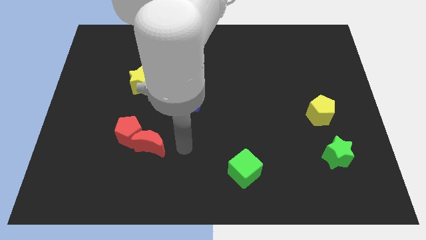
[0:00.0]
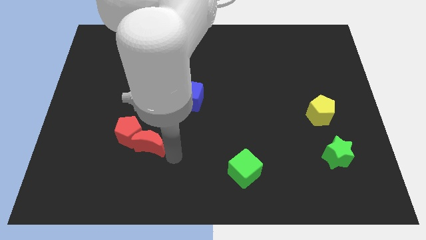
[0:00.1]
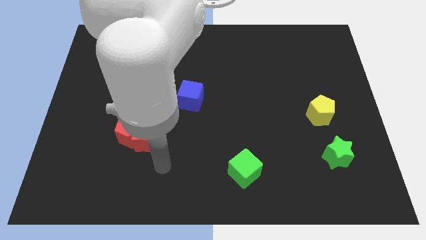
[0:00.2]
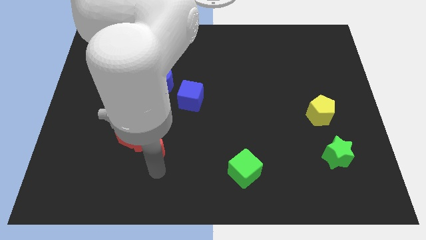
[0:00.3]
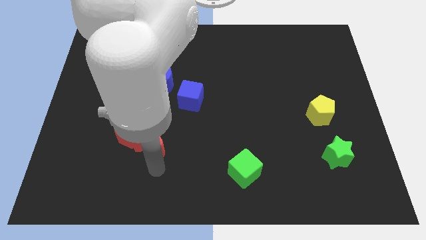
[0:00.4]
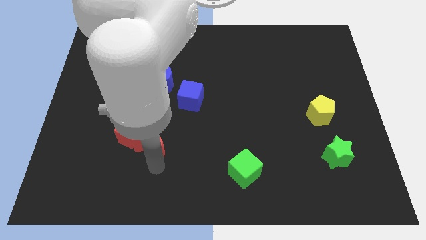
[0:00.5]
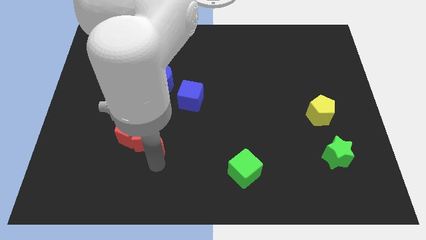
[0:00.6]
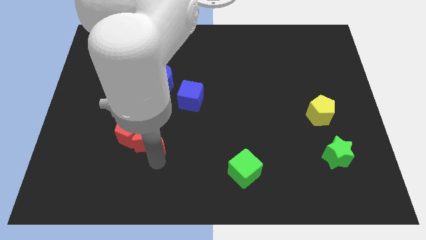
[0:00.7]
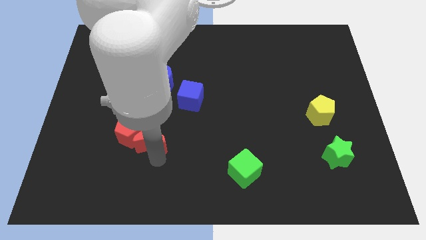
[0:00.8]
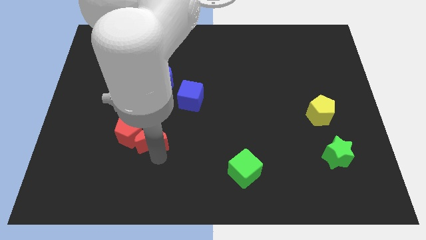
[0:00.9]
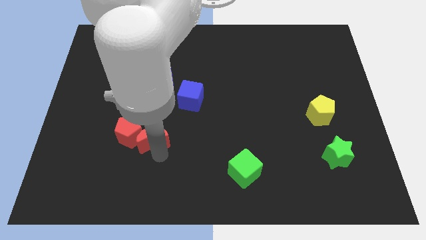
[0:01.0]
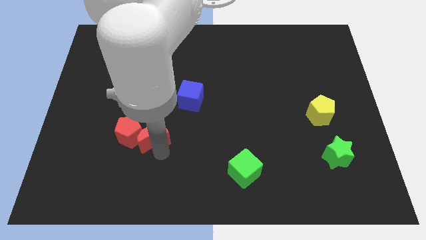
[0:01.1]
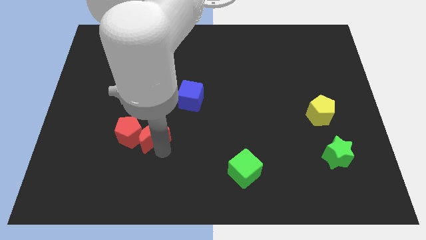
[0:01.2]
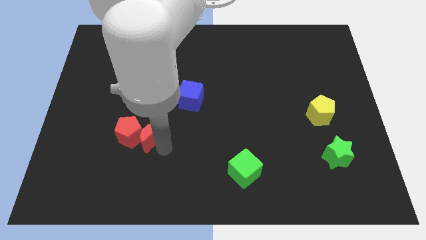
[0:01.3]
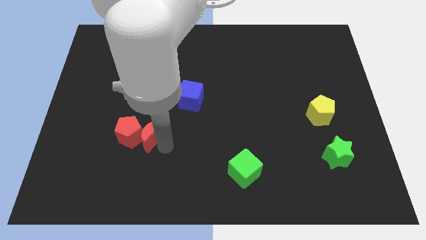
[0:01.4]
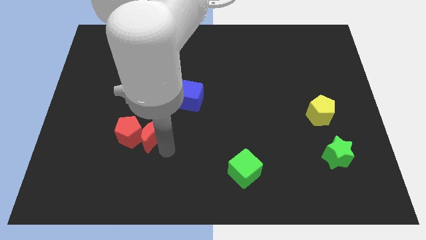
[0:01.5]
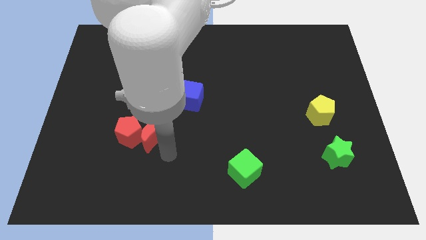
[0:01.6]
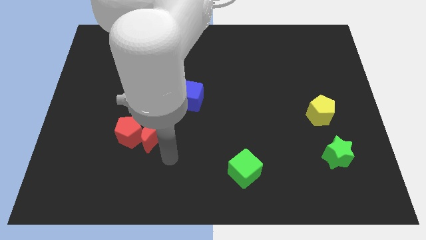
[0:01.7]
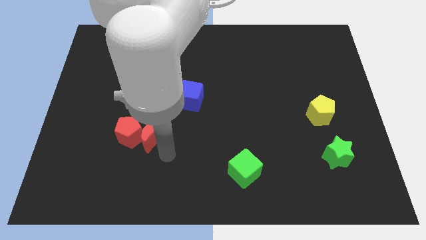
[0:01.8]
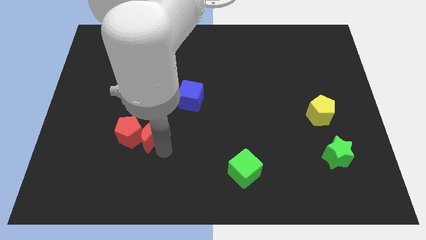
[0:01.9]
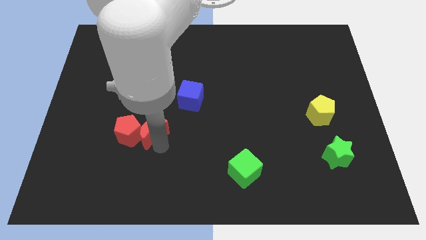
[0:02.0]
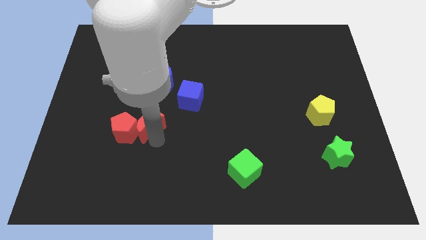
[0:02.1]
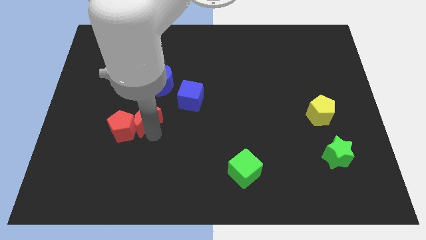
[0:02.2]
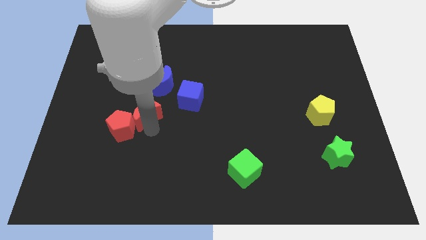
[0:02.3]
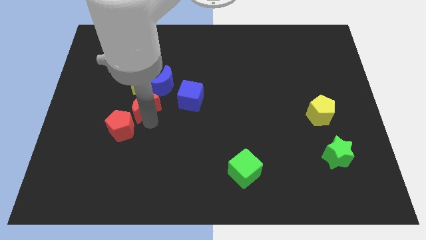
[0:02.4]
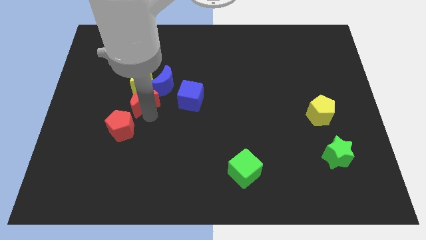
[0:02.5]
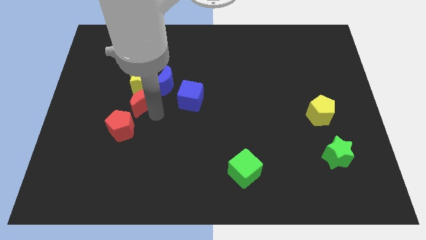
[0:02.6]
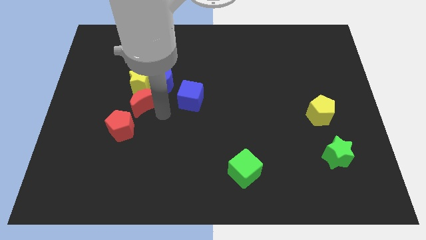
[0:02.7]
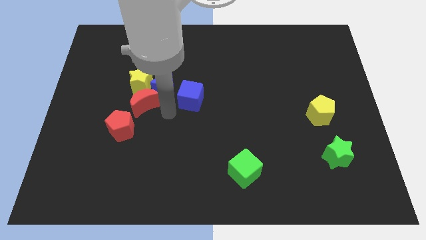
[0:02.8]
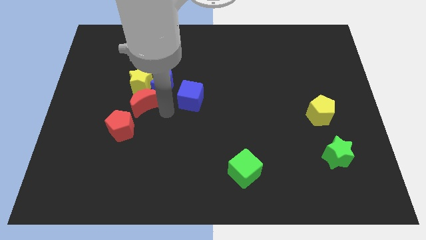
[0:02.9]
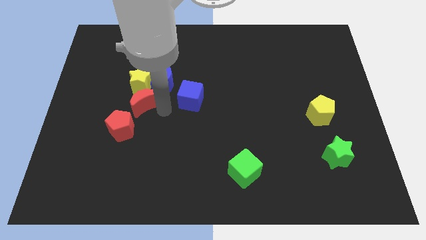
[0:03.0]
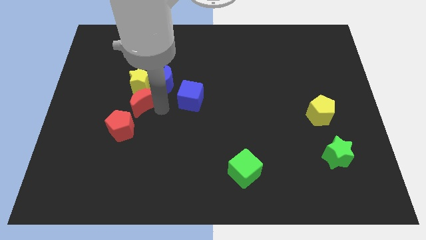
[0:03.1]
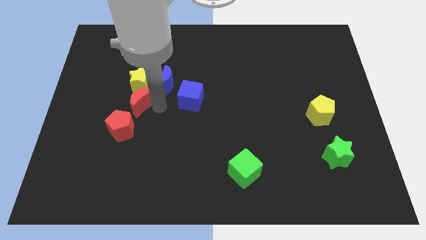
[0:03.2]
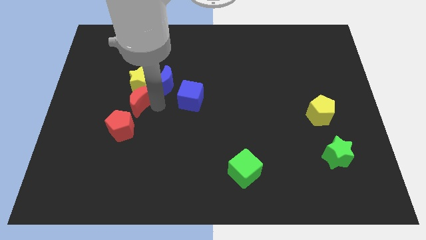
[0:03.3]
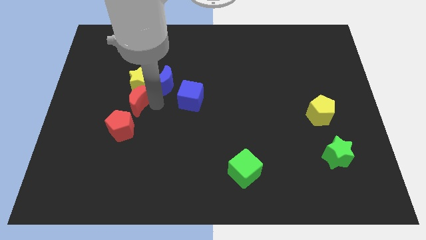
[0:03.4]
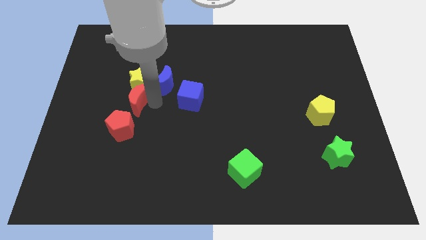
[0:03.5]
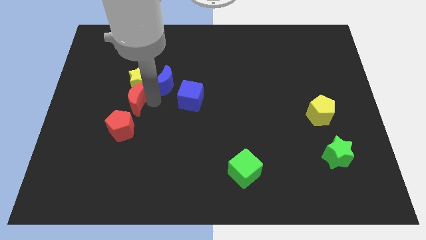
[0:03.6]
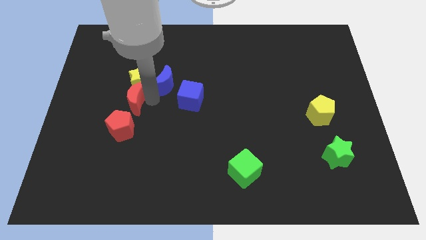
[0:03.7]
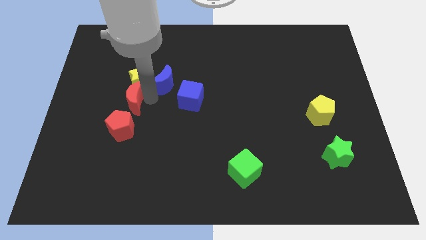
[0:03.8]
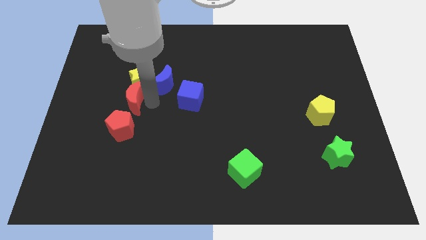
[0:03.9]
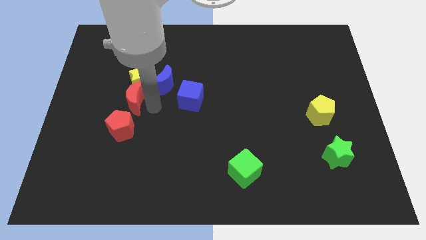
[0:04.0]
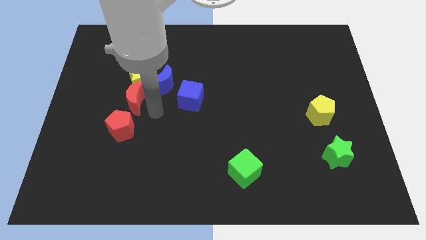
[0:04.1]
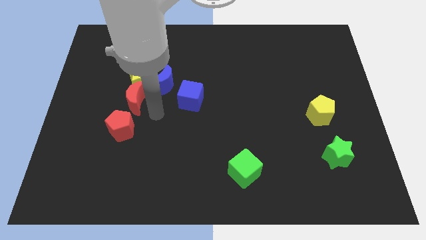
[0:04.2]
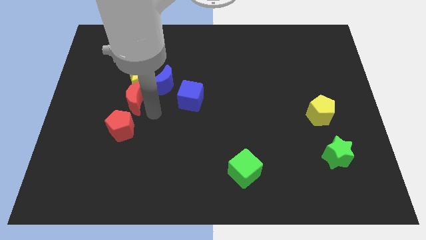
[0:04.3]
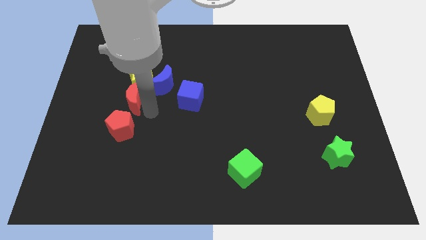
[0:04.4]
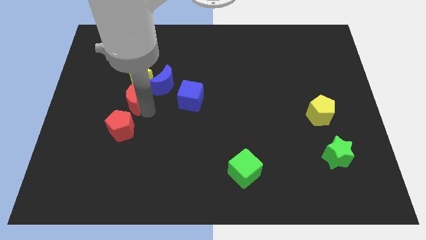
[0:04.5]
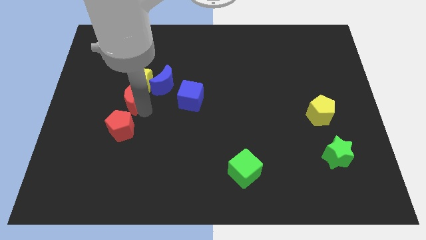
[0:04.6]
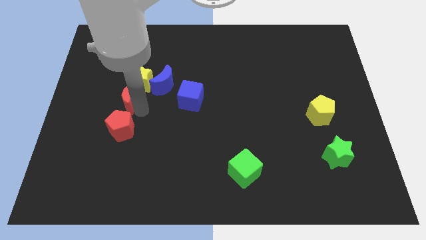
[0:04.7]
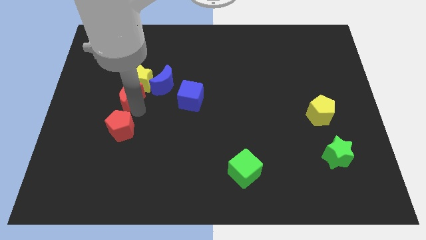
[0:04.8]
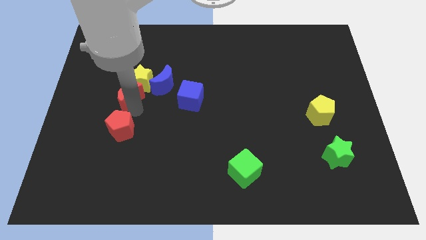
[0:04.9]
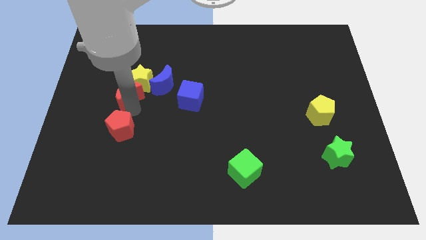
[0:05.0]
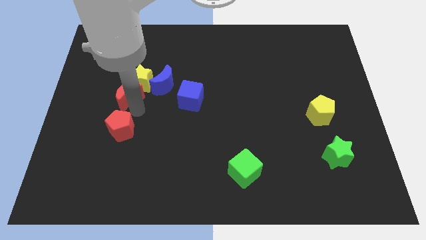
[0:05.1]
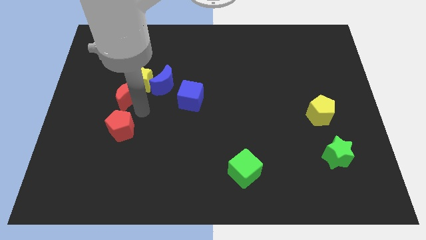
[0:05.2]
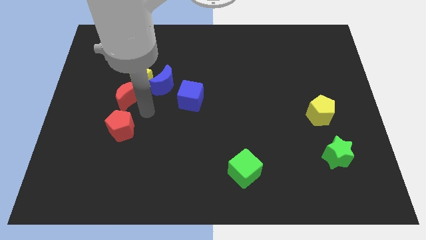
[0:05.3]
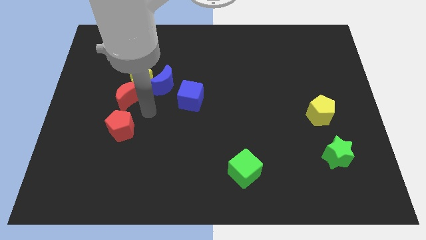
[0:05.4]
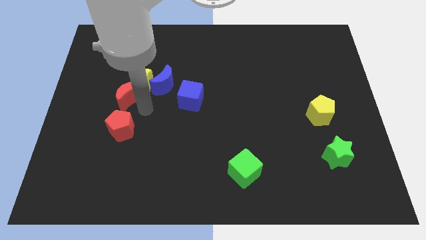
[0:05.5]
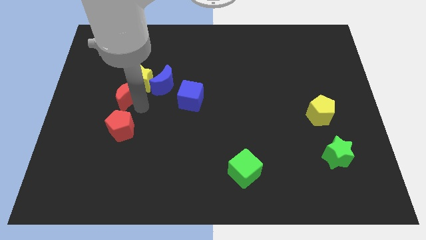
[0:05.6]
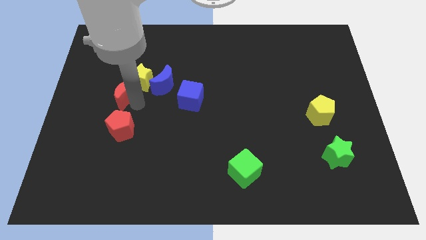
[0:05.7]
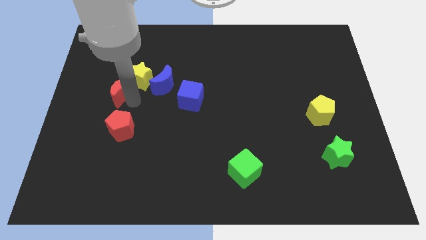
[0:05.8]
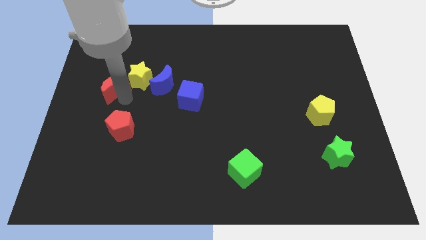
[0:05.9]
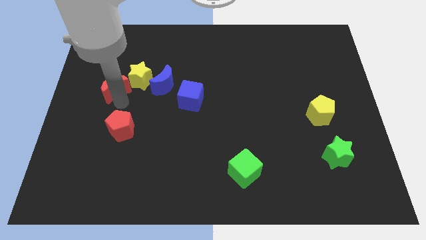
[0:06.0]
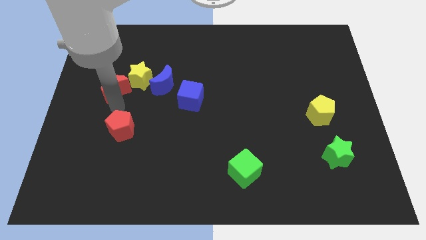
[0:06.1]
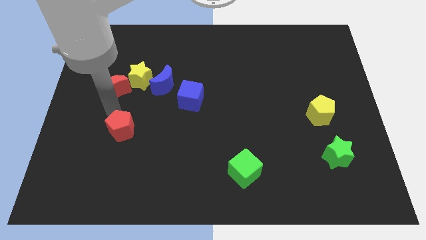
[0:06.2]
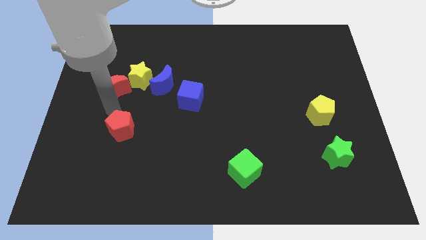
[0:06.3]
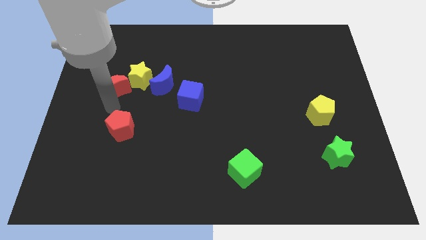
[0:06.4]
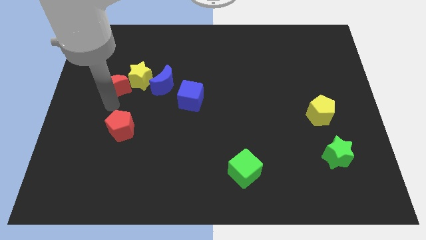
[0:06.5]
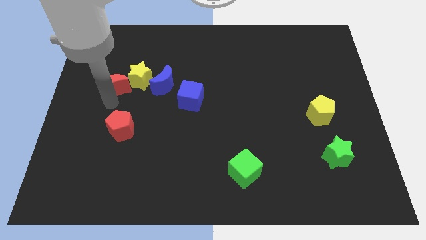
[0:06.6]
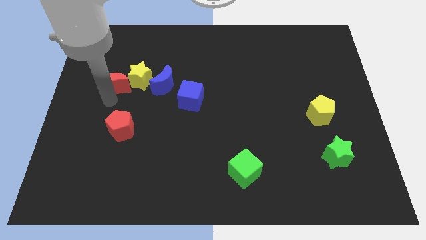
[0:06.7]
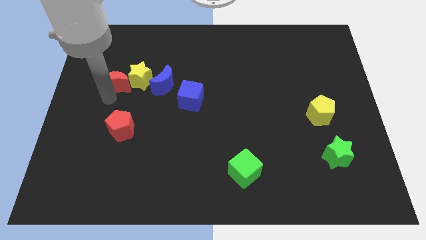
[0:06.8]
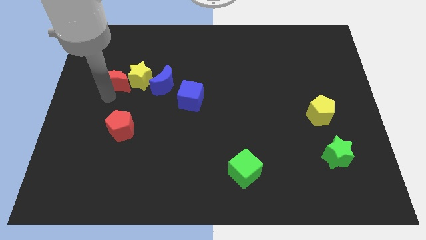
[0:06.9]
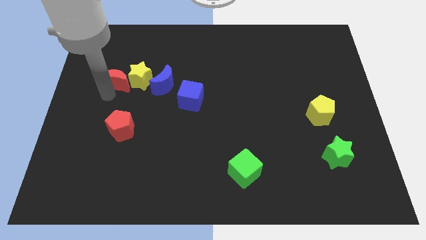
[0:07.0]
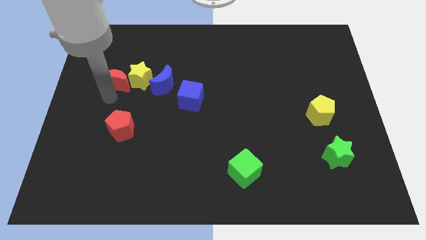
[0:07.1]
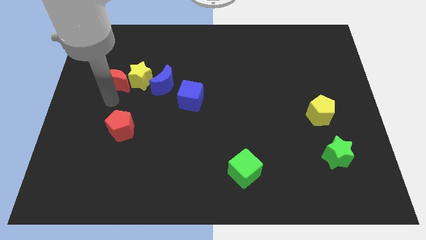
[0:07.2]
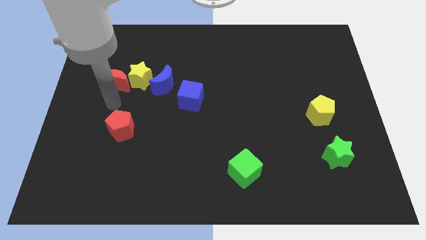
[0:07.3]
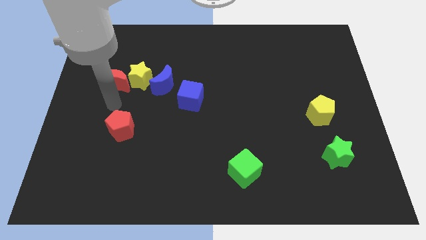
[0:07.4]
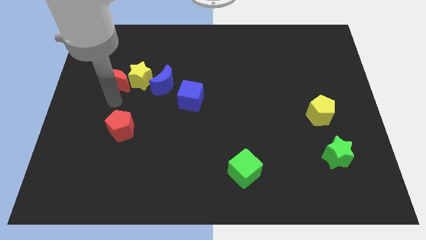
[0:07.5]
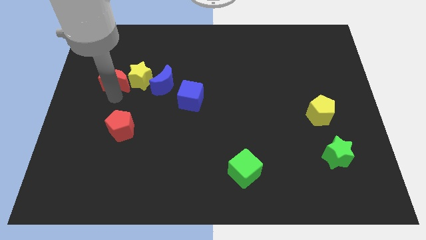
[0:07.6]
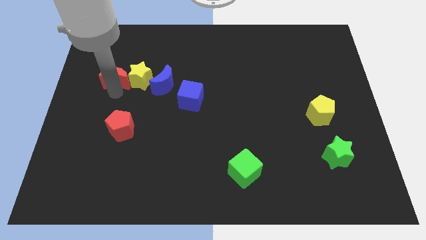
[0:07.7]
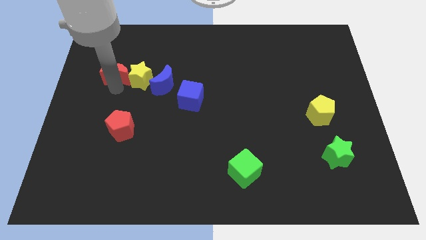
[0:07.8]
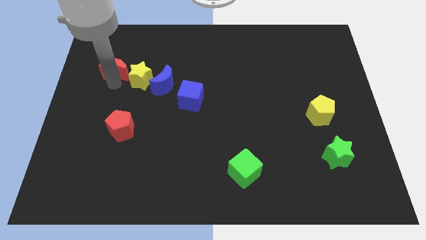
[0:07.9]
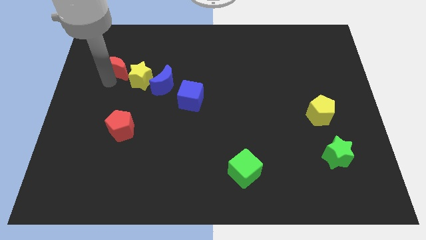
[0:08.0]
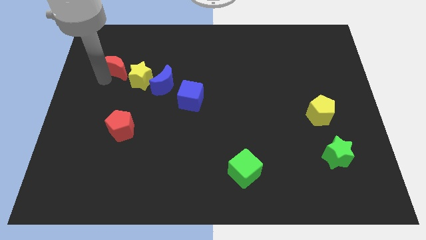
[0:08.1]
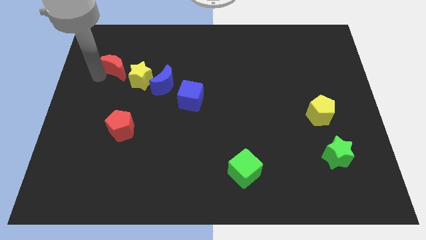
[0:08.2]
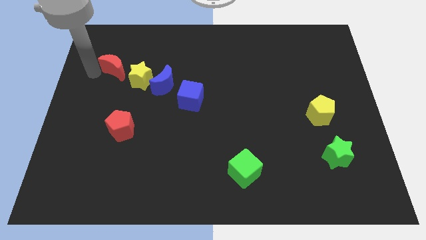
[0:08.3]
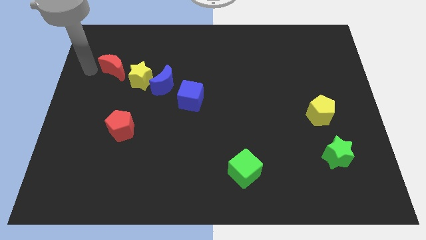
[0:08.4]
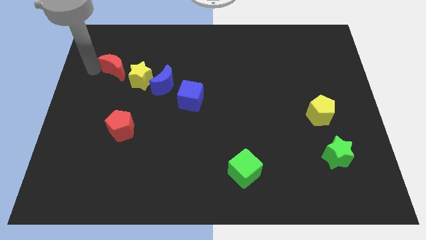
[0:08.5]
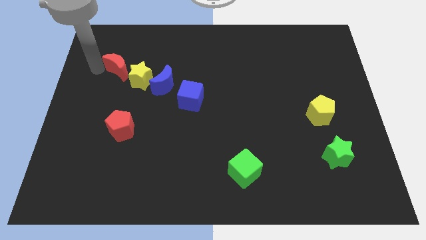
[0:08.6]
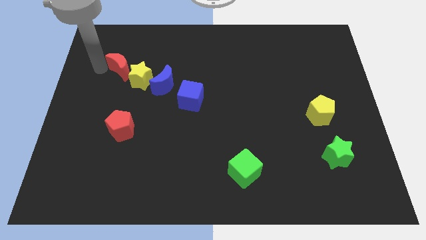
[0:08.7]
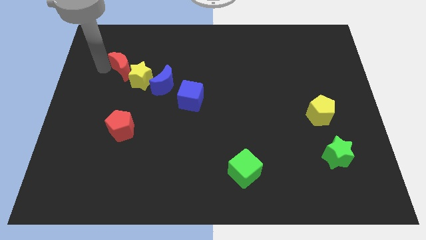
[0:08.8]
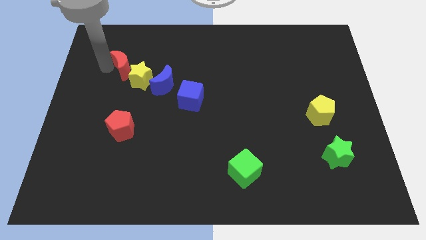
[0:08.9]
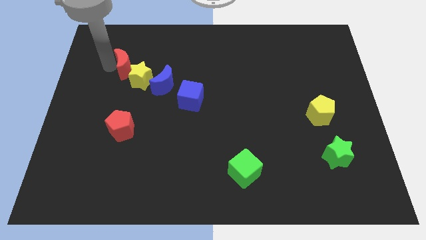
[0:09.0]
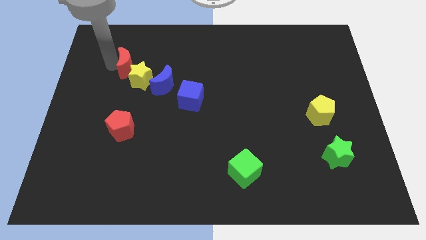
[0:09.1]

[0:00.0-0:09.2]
push the red moon to the top left of the blue moon
